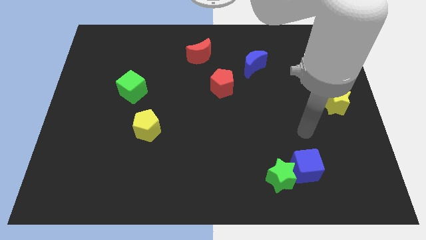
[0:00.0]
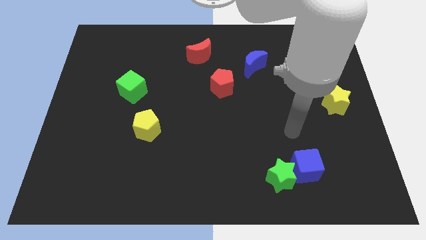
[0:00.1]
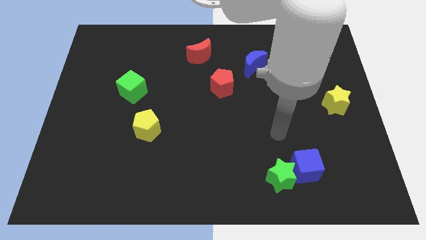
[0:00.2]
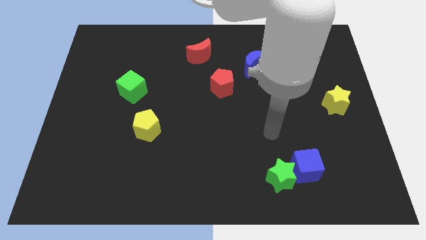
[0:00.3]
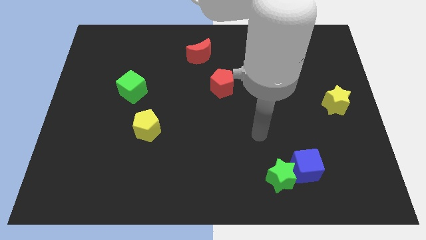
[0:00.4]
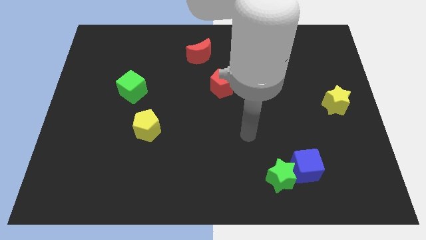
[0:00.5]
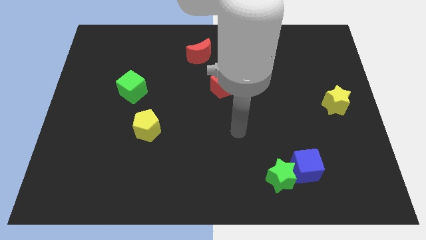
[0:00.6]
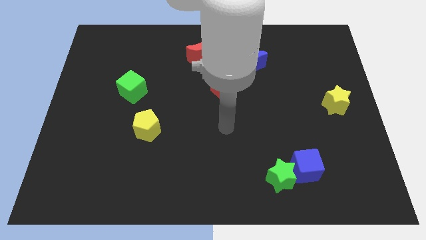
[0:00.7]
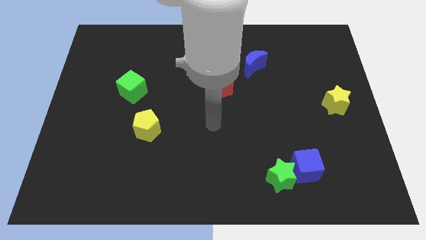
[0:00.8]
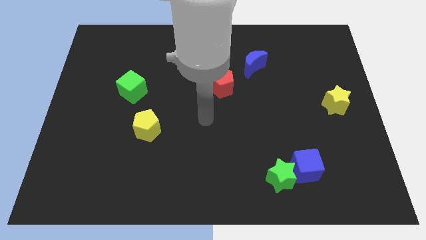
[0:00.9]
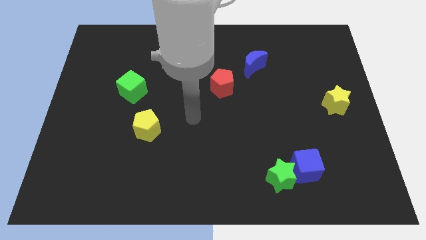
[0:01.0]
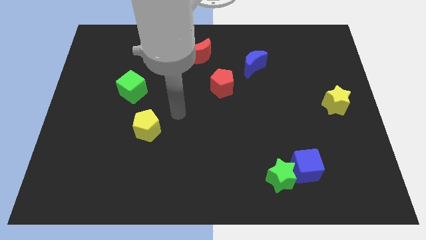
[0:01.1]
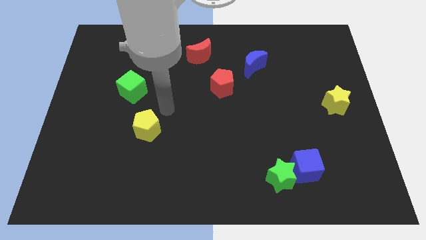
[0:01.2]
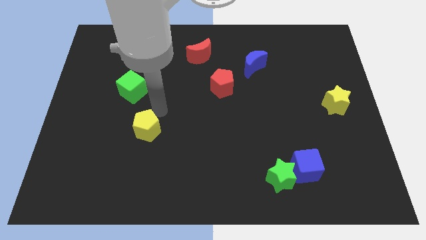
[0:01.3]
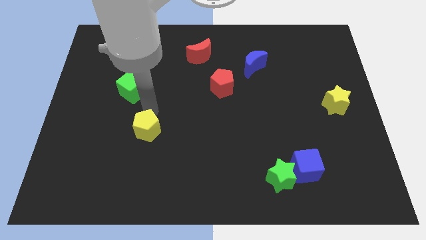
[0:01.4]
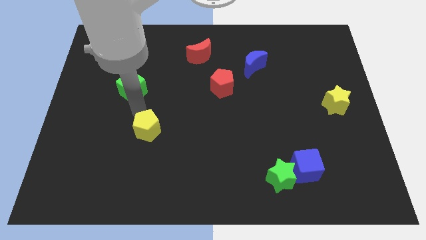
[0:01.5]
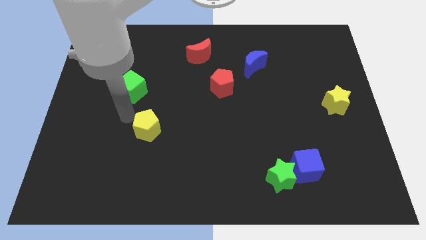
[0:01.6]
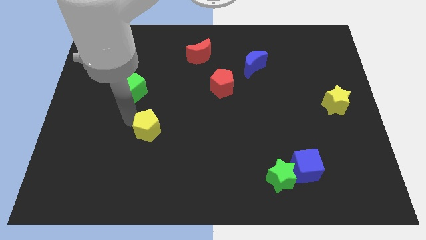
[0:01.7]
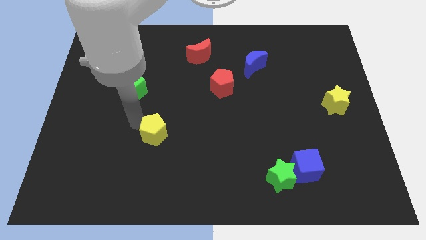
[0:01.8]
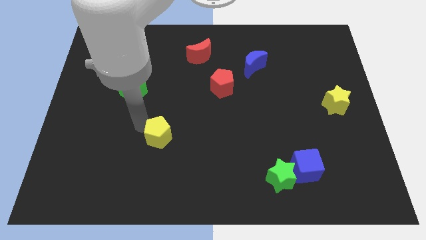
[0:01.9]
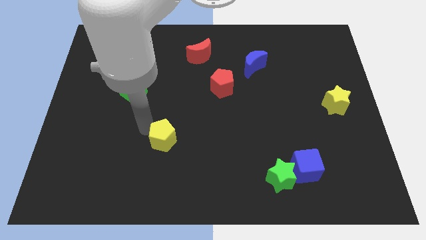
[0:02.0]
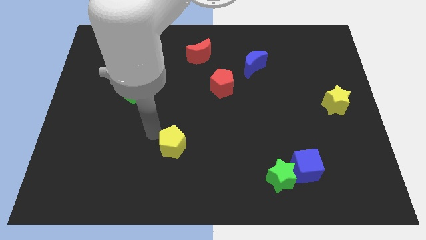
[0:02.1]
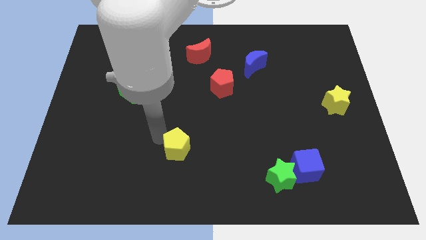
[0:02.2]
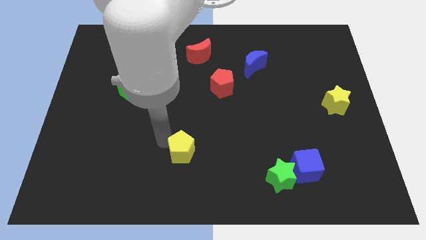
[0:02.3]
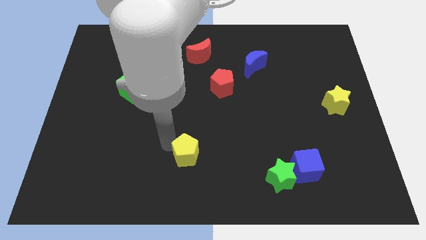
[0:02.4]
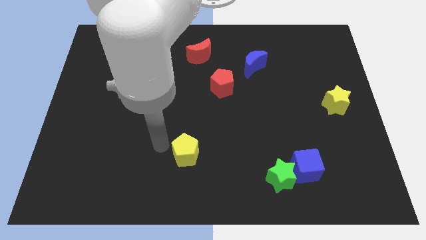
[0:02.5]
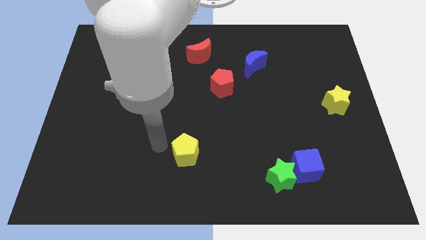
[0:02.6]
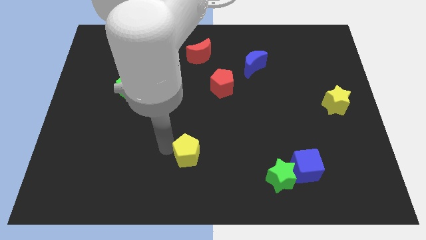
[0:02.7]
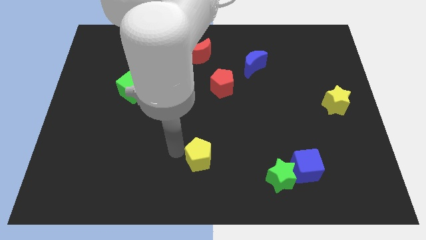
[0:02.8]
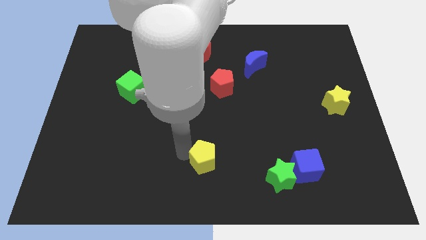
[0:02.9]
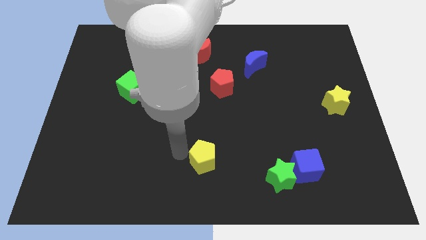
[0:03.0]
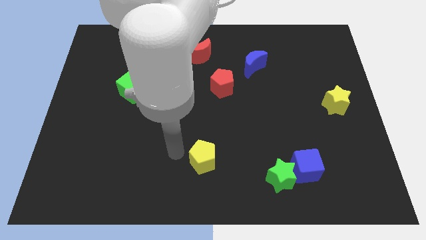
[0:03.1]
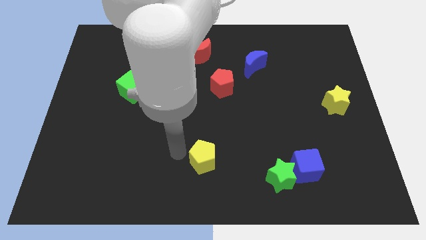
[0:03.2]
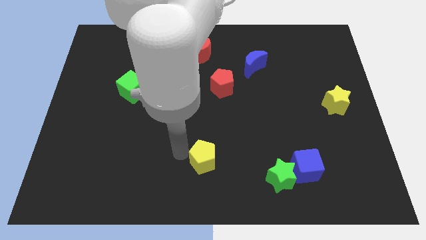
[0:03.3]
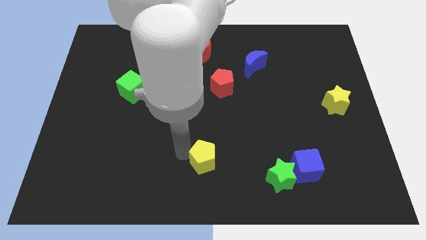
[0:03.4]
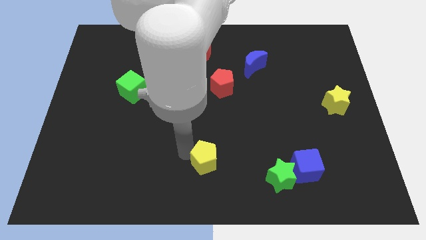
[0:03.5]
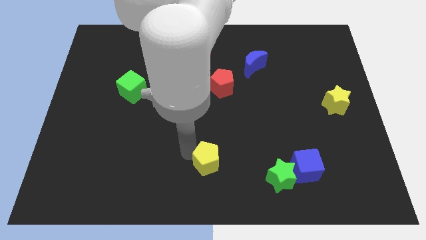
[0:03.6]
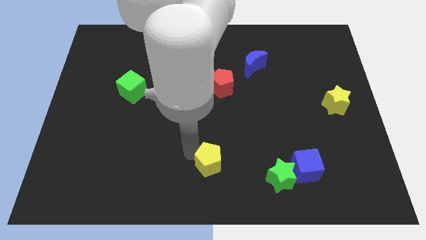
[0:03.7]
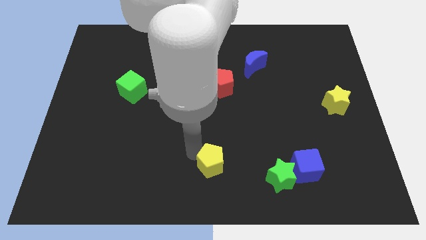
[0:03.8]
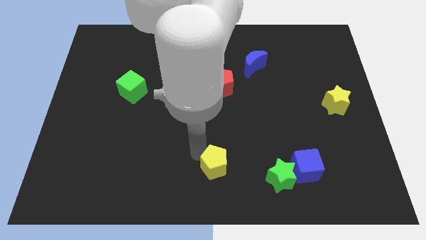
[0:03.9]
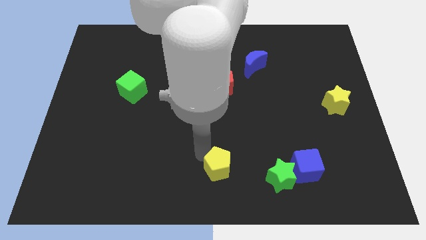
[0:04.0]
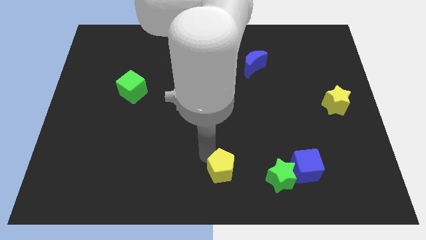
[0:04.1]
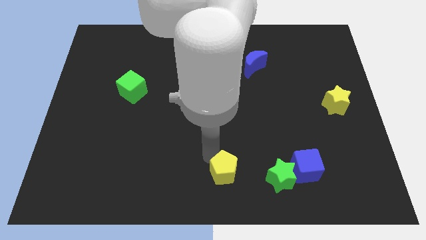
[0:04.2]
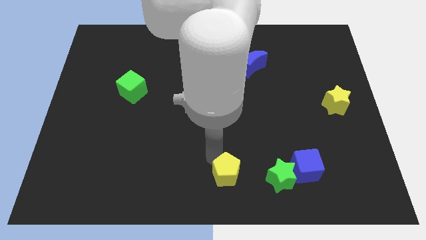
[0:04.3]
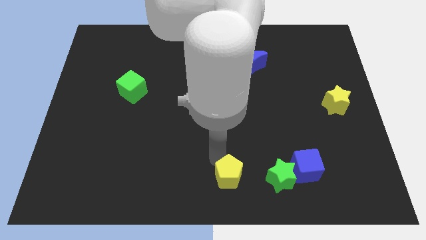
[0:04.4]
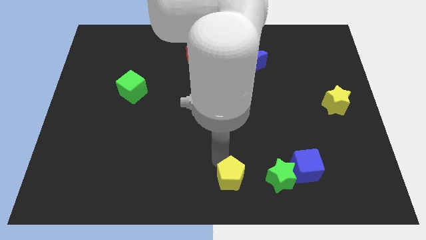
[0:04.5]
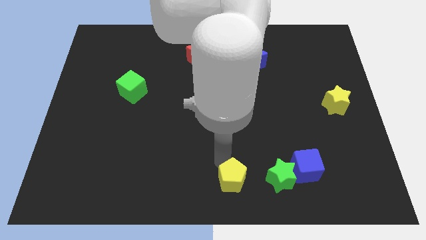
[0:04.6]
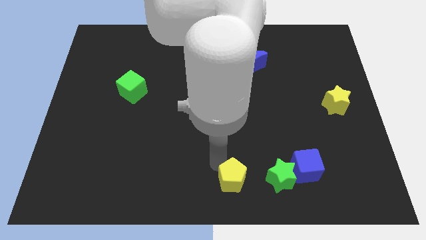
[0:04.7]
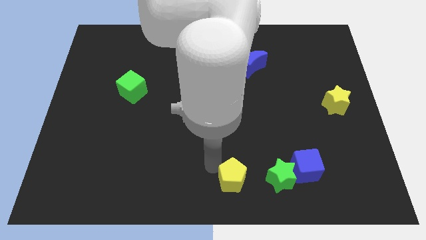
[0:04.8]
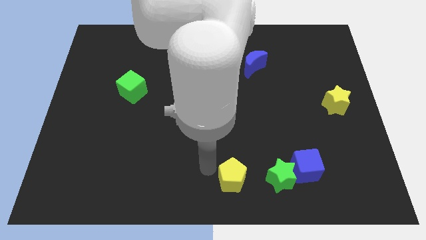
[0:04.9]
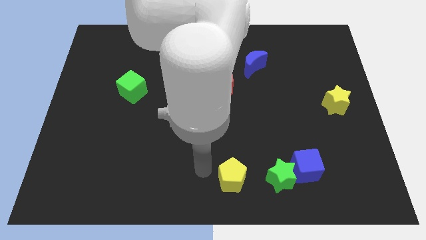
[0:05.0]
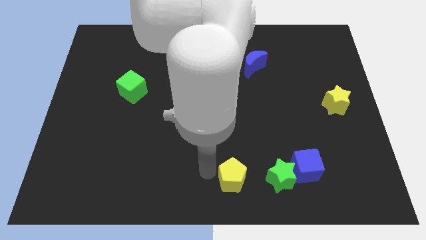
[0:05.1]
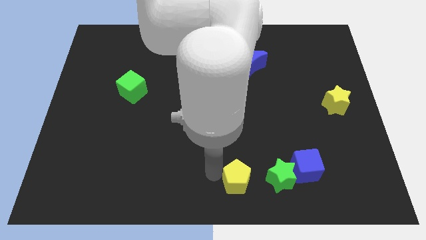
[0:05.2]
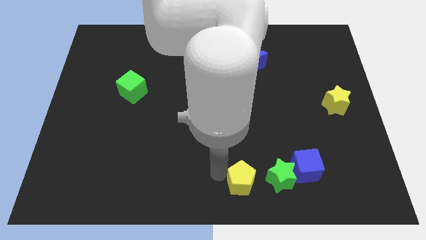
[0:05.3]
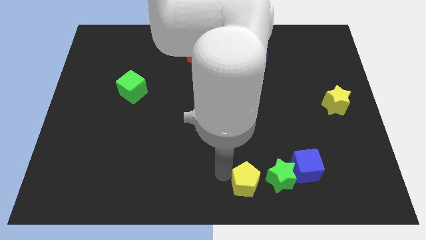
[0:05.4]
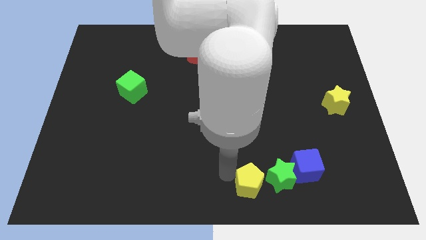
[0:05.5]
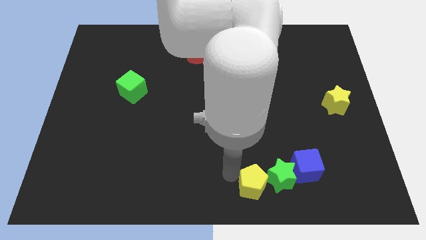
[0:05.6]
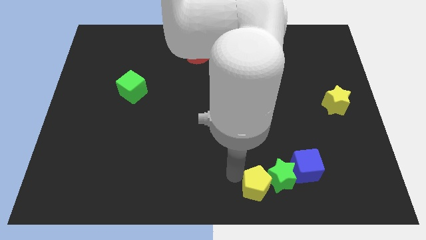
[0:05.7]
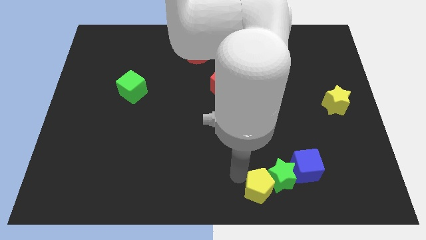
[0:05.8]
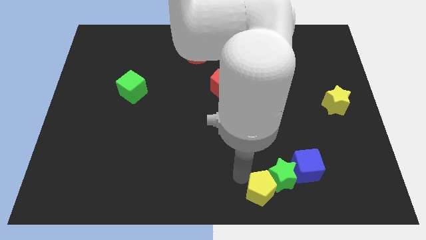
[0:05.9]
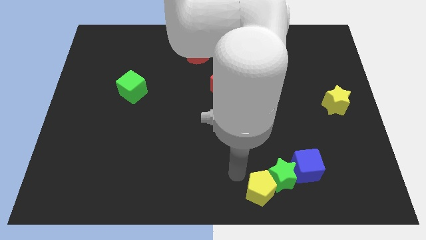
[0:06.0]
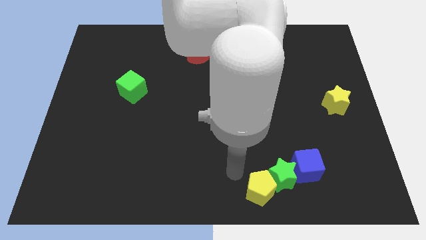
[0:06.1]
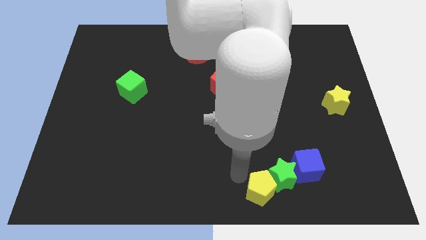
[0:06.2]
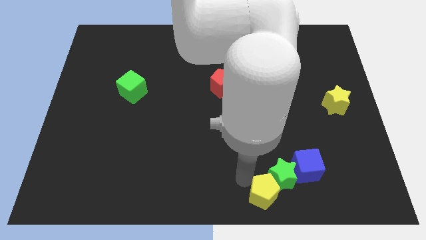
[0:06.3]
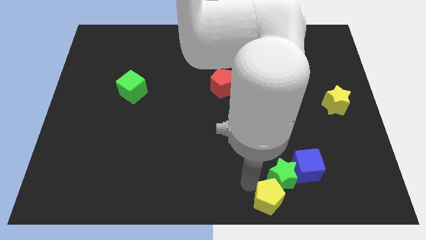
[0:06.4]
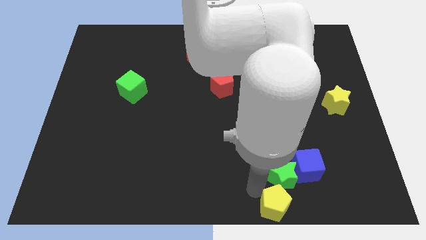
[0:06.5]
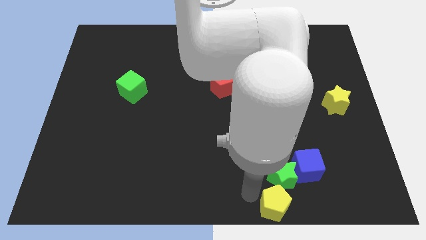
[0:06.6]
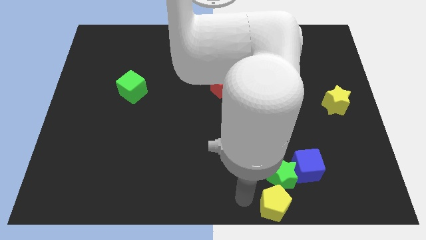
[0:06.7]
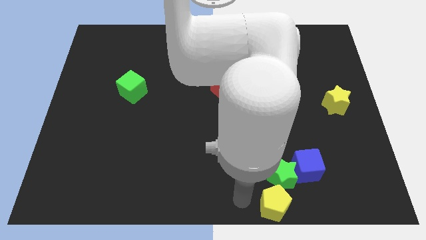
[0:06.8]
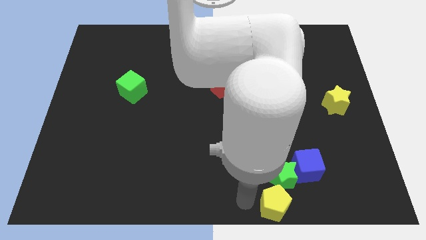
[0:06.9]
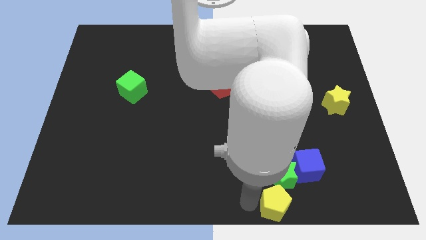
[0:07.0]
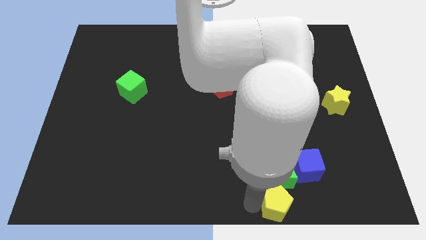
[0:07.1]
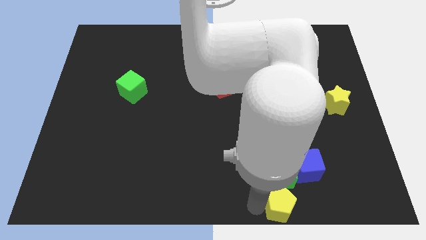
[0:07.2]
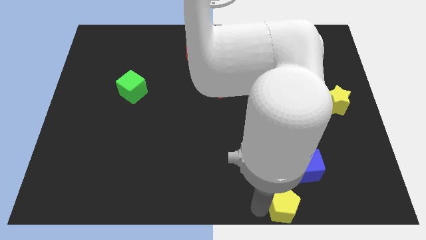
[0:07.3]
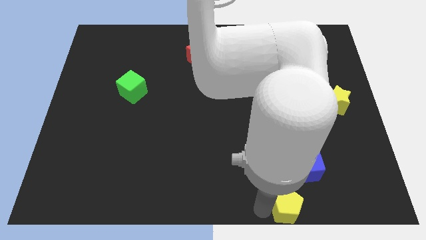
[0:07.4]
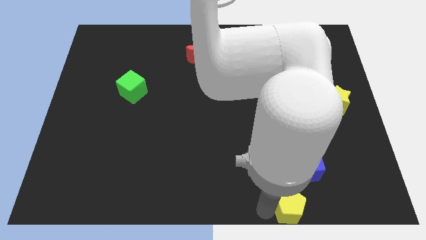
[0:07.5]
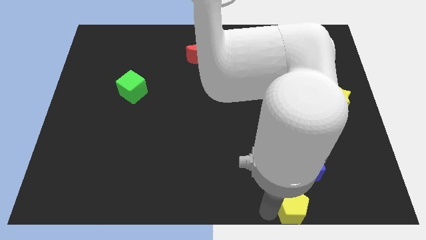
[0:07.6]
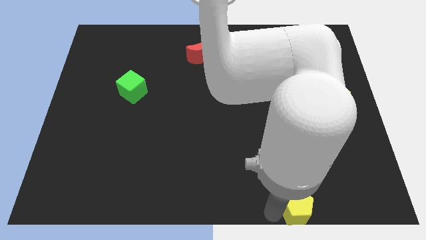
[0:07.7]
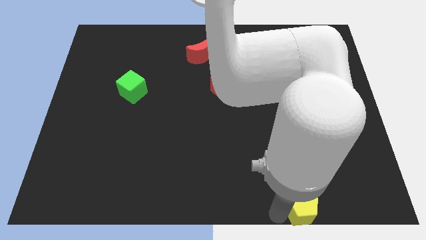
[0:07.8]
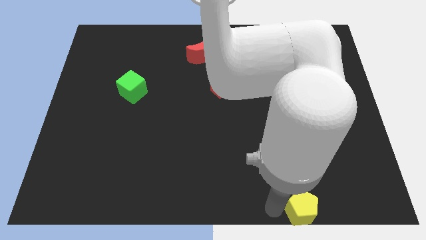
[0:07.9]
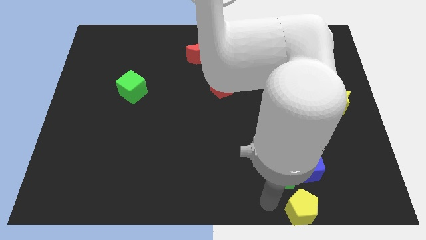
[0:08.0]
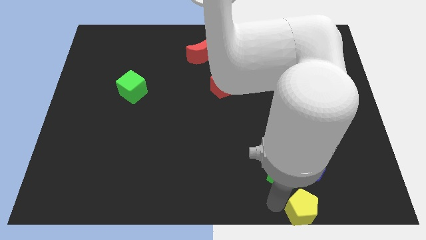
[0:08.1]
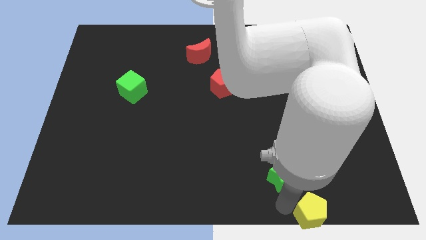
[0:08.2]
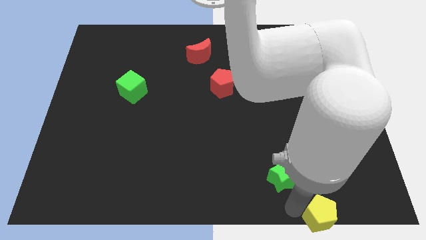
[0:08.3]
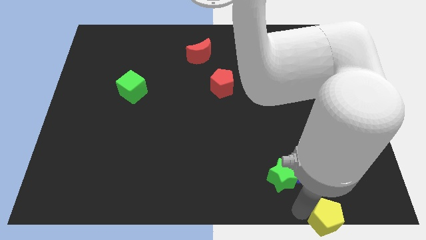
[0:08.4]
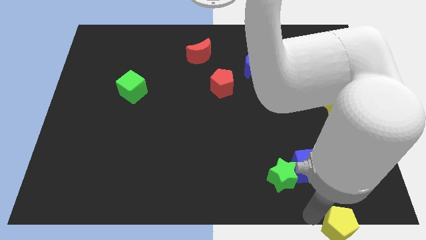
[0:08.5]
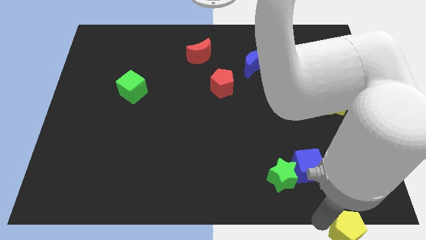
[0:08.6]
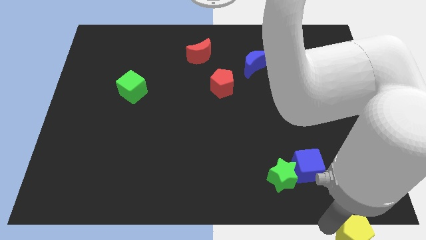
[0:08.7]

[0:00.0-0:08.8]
slide the yellow pentagon to the lower right corner
